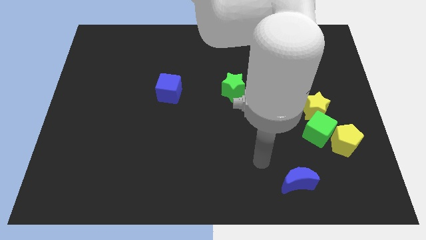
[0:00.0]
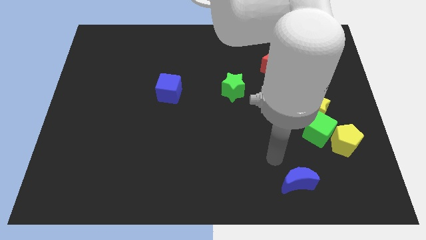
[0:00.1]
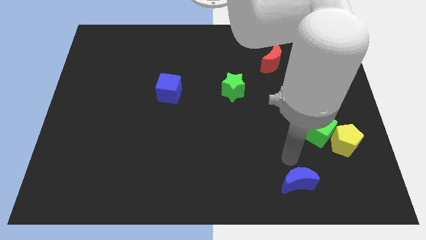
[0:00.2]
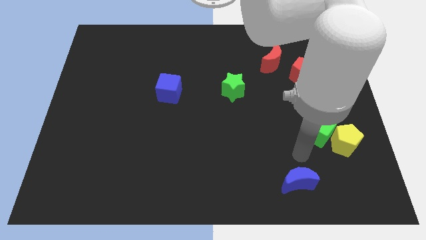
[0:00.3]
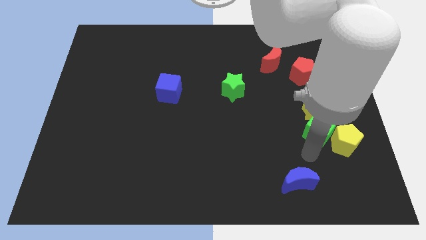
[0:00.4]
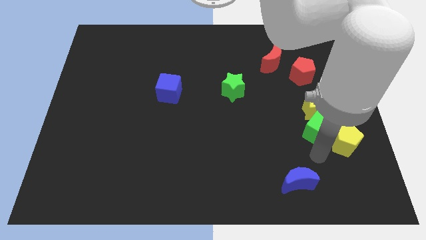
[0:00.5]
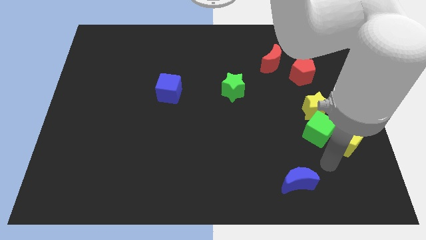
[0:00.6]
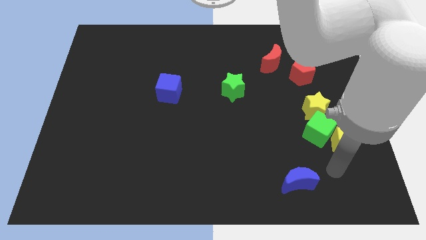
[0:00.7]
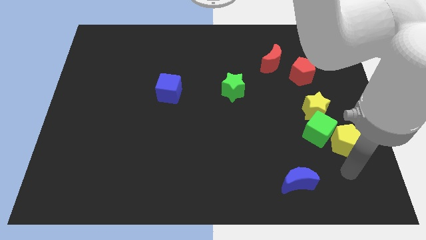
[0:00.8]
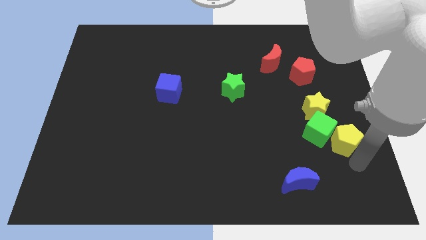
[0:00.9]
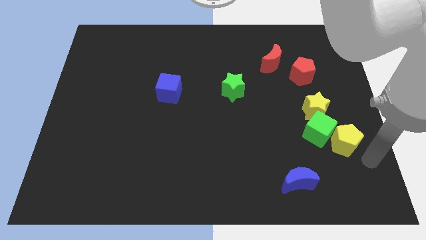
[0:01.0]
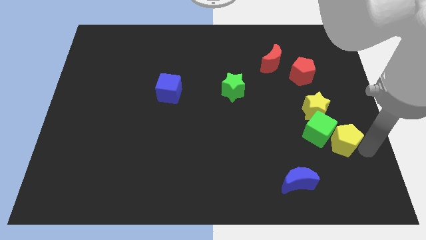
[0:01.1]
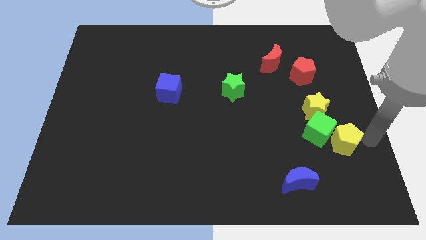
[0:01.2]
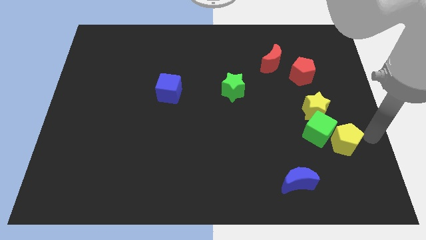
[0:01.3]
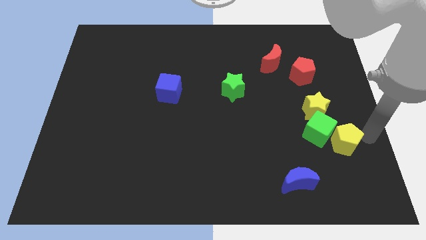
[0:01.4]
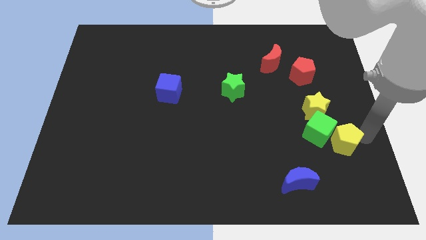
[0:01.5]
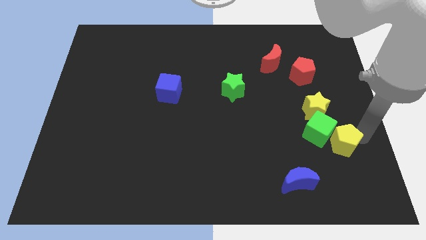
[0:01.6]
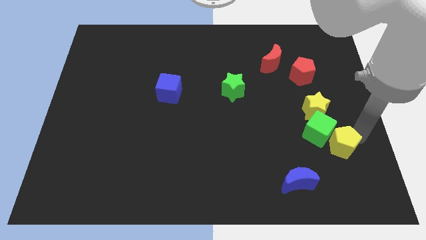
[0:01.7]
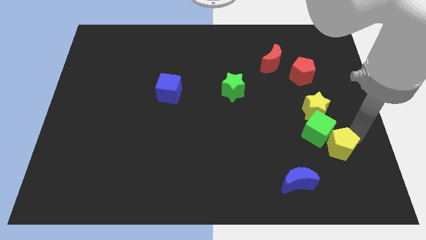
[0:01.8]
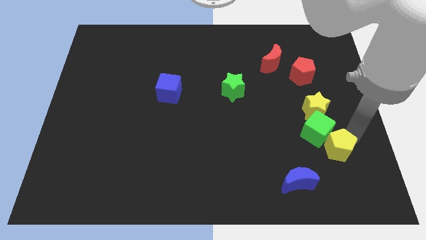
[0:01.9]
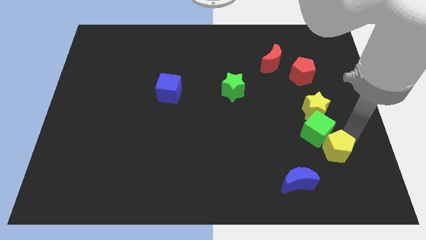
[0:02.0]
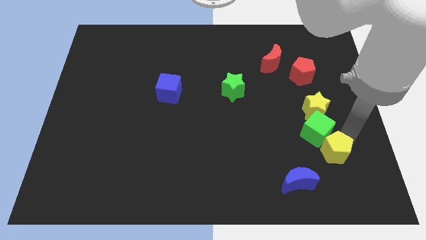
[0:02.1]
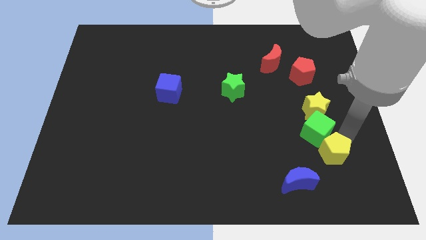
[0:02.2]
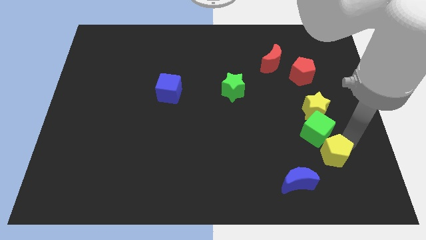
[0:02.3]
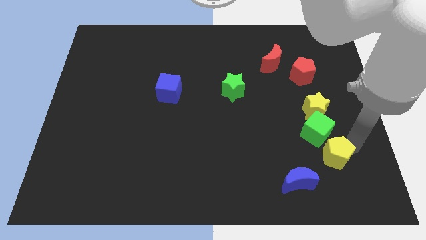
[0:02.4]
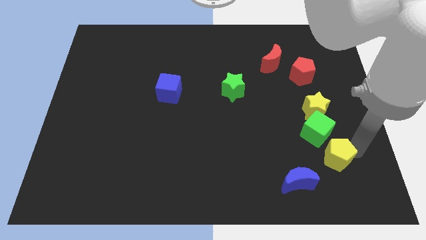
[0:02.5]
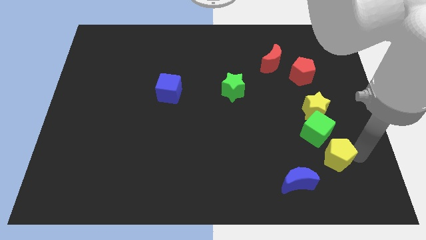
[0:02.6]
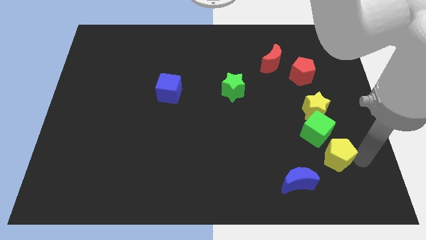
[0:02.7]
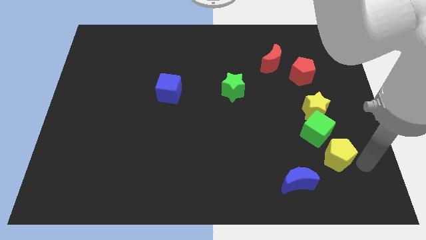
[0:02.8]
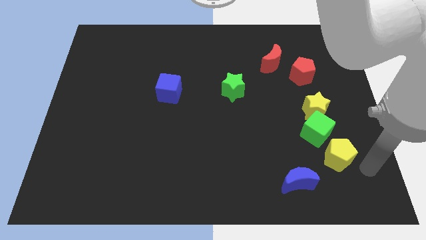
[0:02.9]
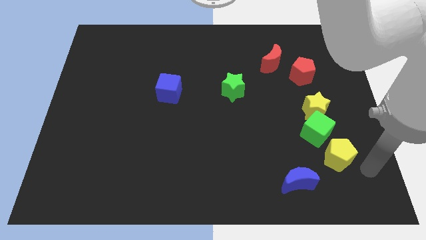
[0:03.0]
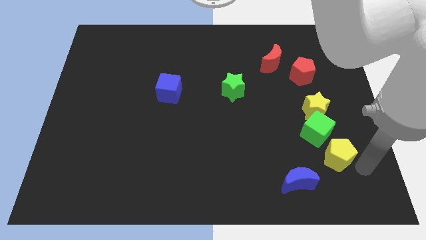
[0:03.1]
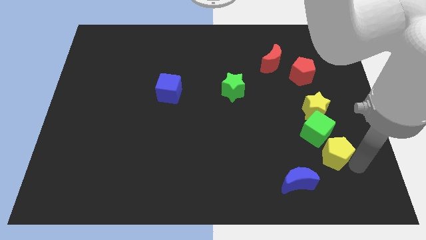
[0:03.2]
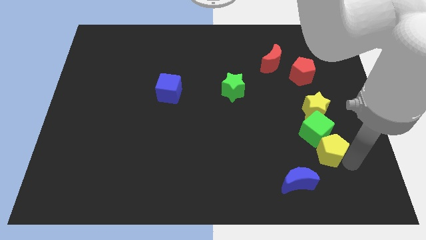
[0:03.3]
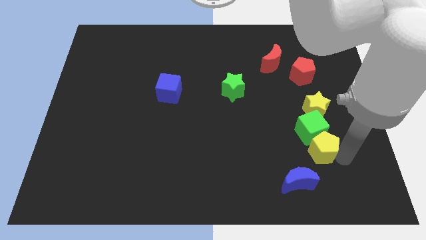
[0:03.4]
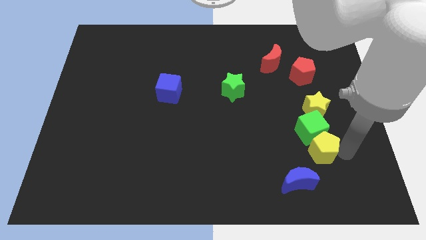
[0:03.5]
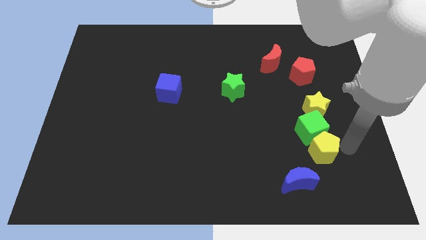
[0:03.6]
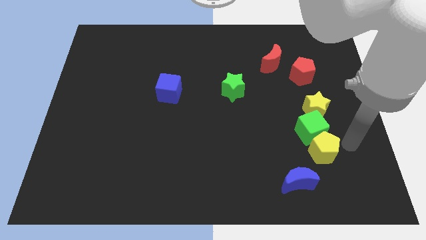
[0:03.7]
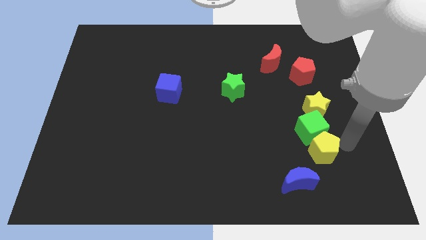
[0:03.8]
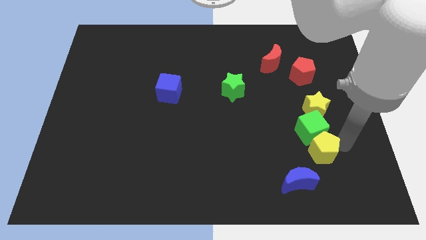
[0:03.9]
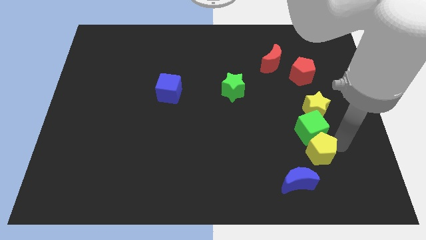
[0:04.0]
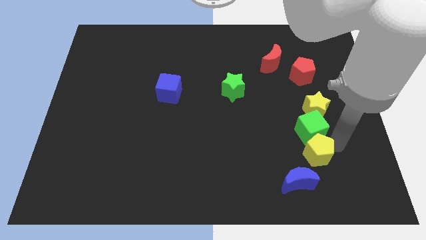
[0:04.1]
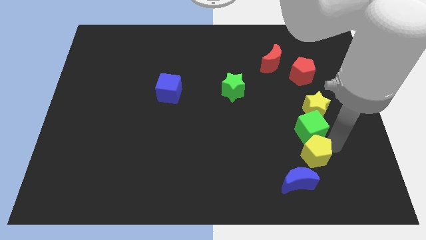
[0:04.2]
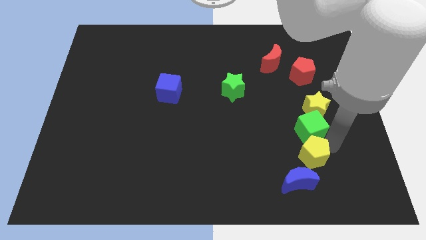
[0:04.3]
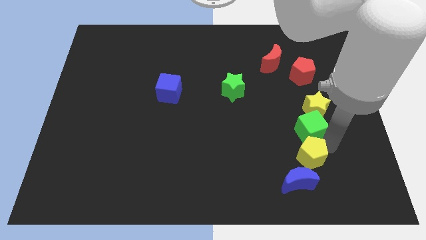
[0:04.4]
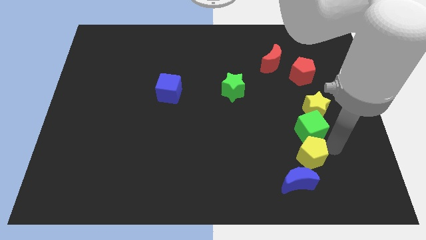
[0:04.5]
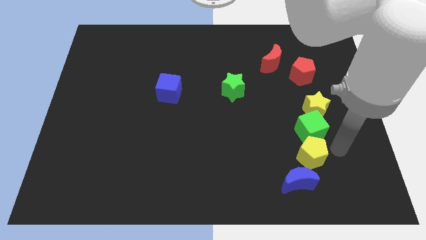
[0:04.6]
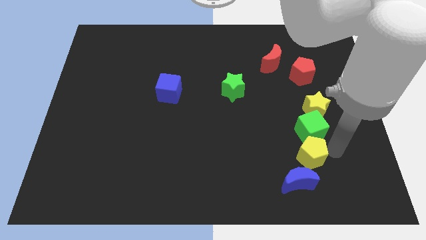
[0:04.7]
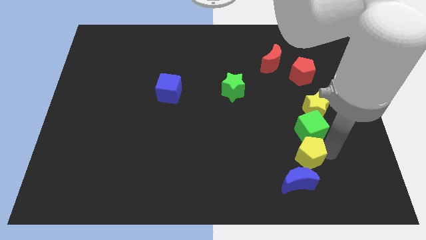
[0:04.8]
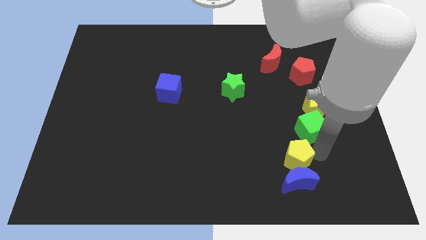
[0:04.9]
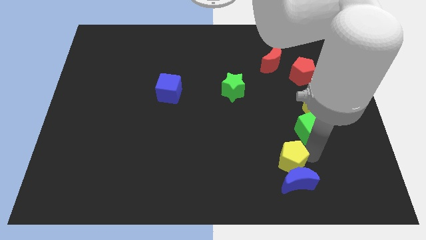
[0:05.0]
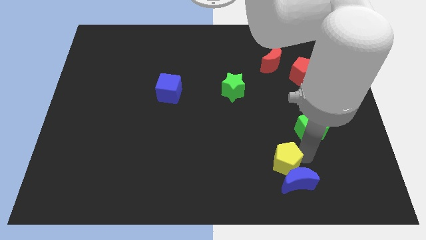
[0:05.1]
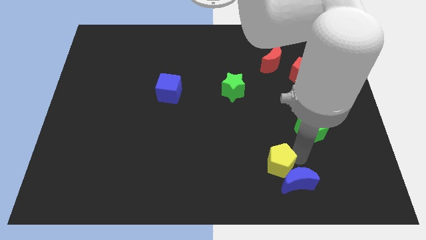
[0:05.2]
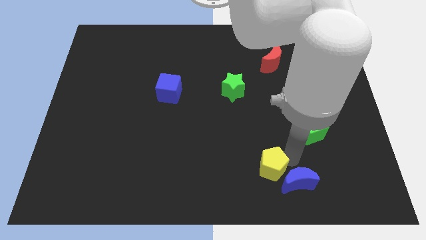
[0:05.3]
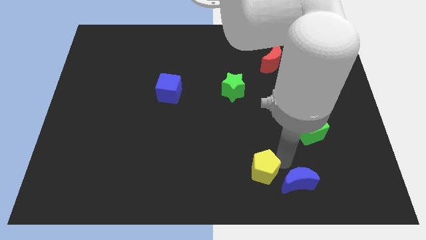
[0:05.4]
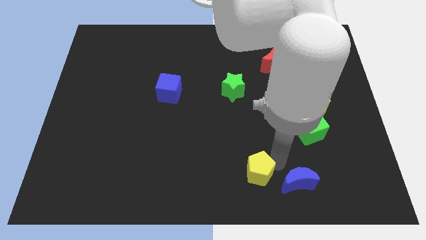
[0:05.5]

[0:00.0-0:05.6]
move the yellow pentagon to the bottom
